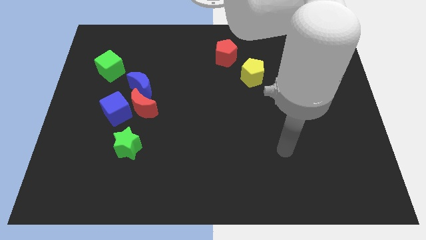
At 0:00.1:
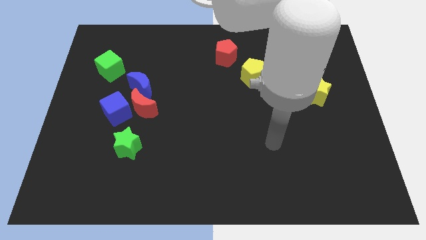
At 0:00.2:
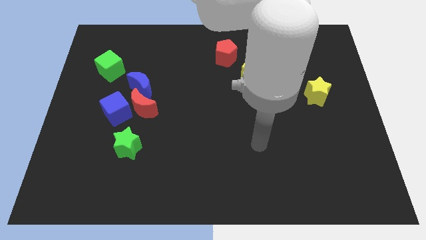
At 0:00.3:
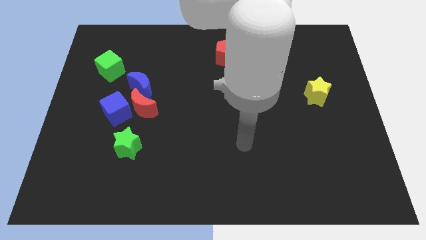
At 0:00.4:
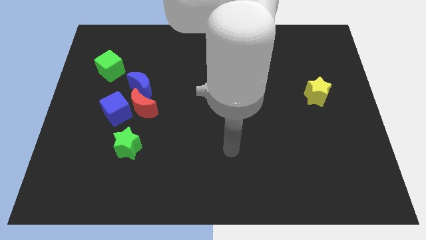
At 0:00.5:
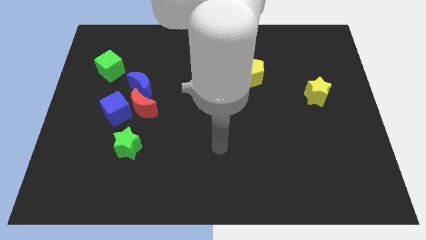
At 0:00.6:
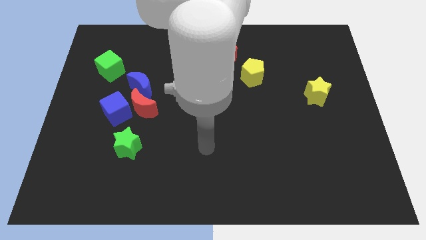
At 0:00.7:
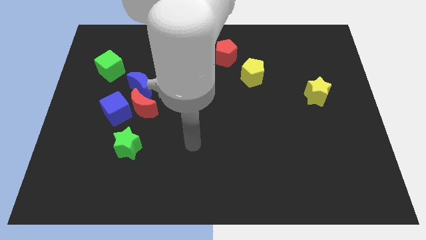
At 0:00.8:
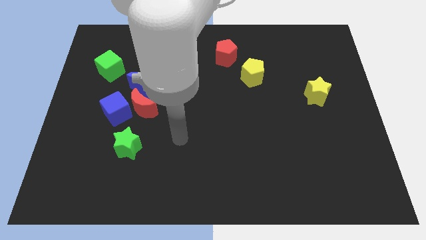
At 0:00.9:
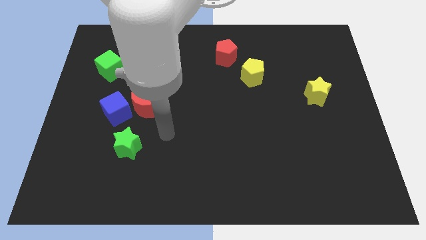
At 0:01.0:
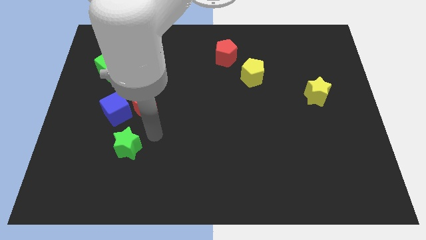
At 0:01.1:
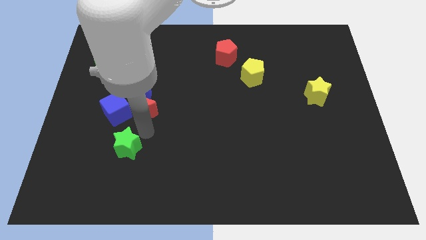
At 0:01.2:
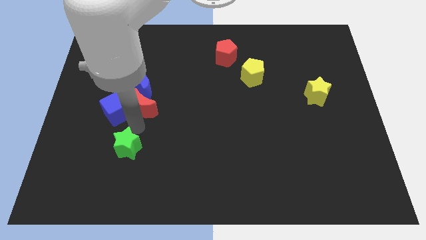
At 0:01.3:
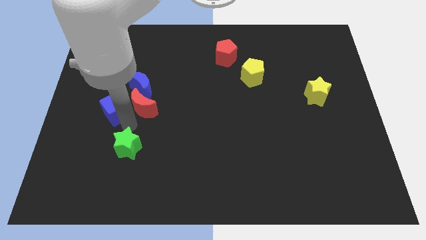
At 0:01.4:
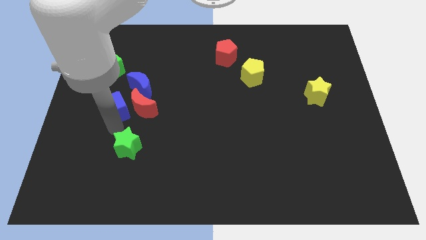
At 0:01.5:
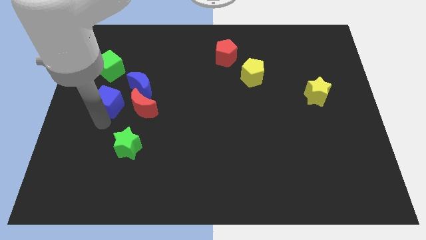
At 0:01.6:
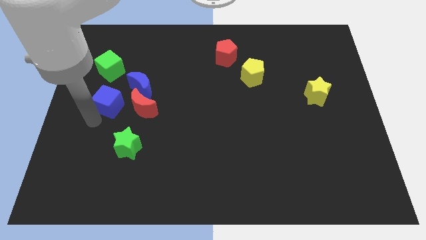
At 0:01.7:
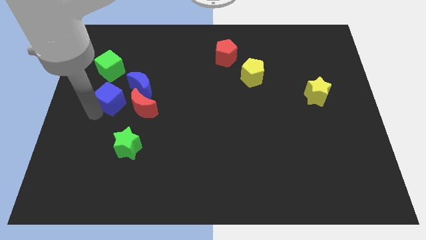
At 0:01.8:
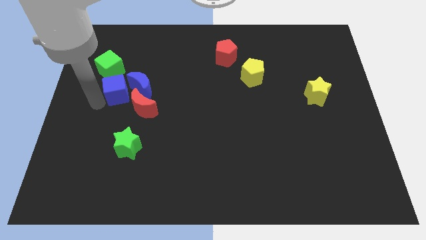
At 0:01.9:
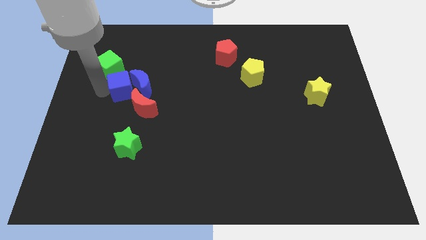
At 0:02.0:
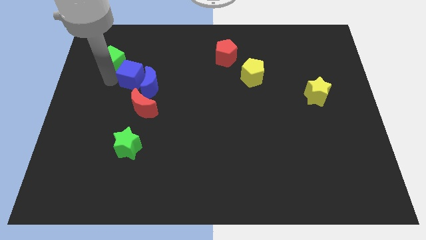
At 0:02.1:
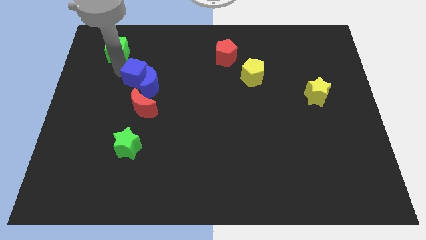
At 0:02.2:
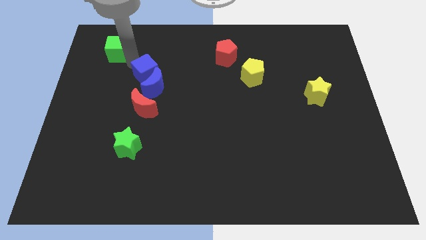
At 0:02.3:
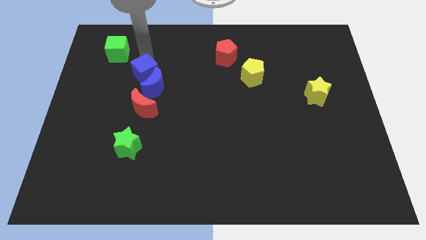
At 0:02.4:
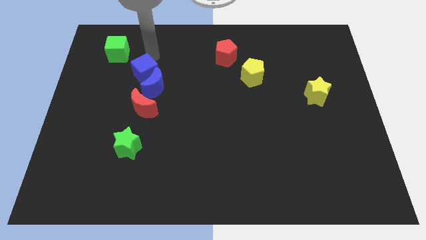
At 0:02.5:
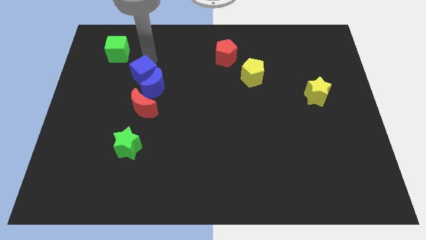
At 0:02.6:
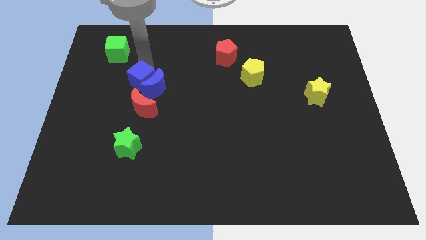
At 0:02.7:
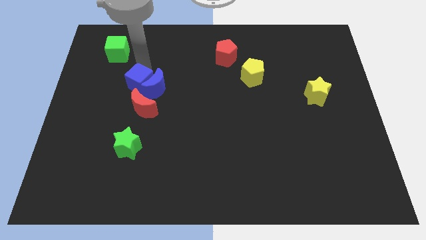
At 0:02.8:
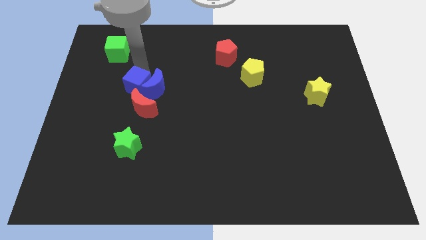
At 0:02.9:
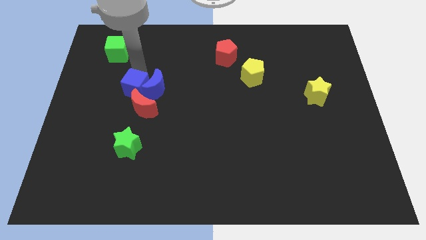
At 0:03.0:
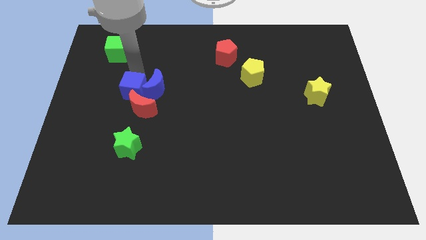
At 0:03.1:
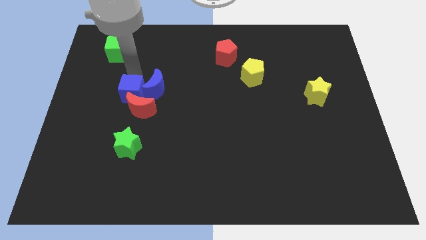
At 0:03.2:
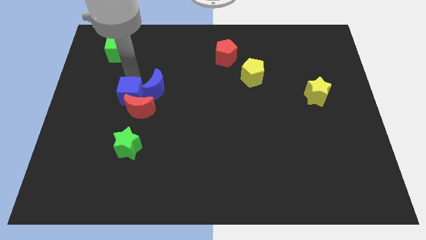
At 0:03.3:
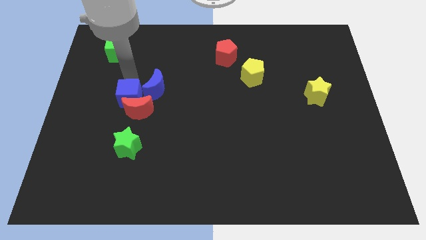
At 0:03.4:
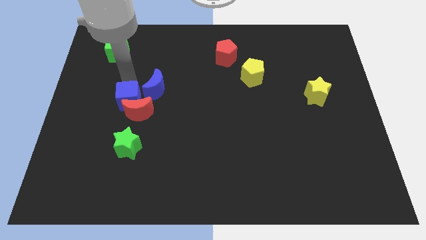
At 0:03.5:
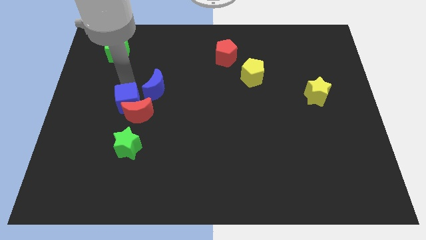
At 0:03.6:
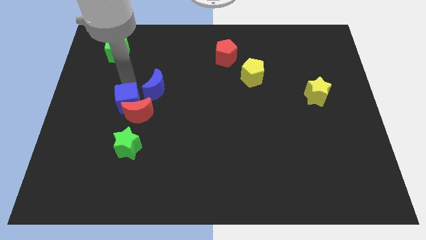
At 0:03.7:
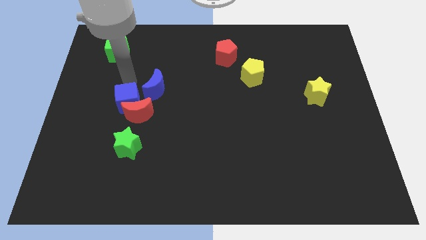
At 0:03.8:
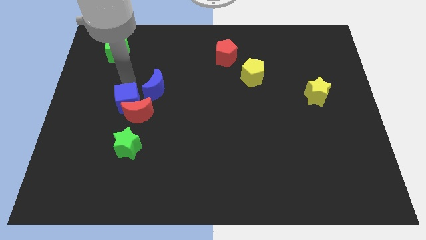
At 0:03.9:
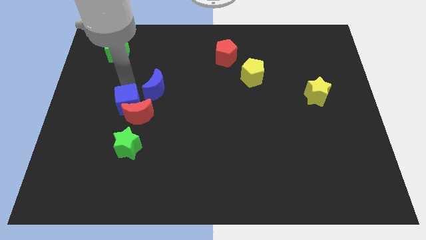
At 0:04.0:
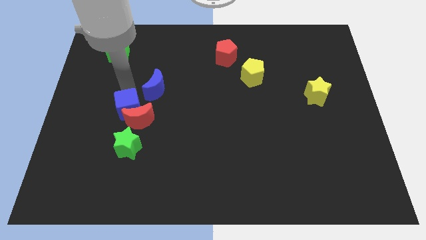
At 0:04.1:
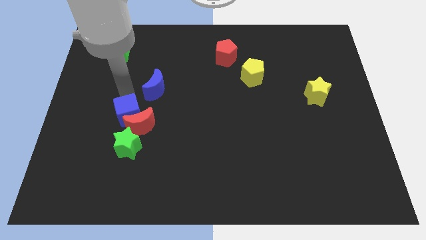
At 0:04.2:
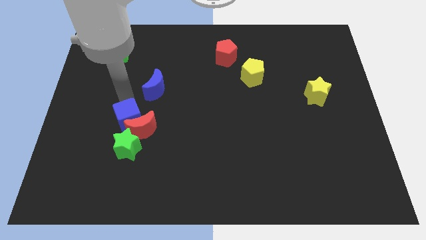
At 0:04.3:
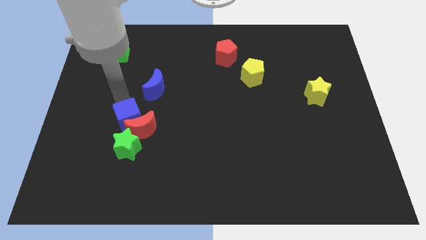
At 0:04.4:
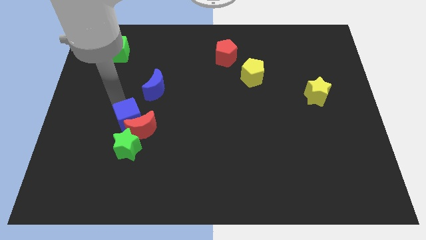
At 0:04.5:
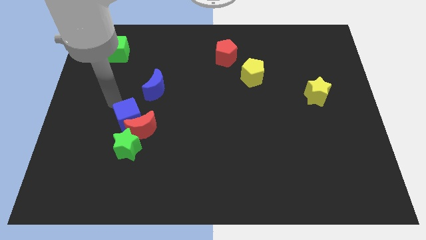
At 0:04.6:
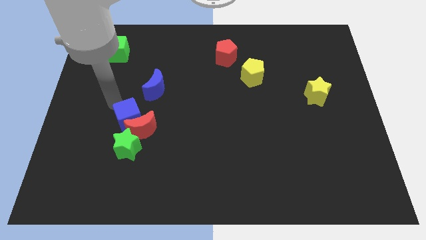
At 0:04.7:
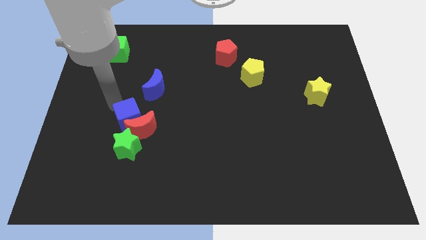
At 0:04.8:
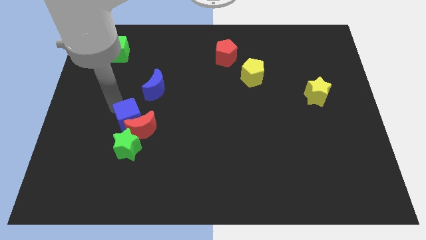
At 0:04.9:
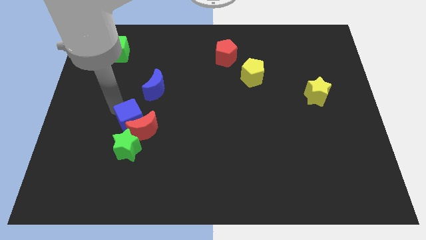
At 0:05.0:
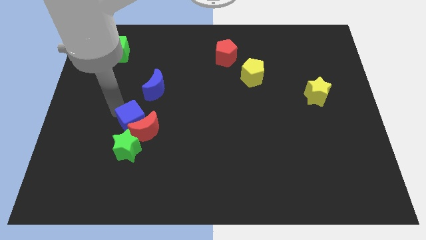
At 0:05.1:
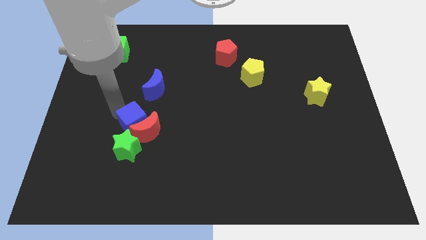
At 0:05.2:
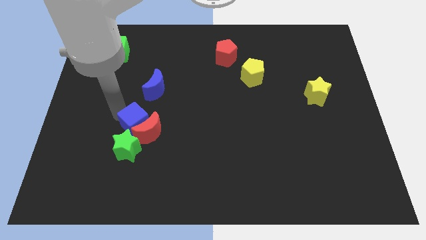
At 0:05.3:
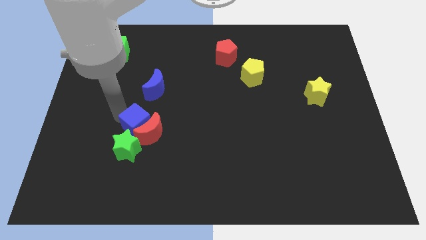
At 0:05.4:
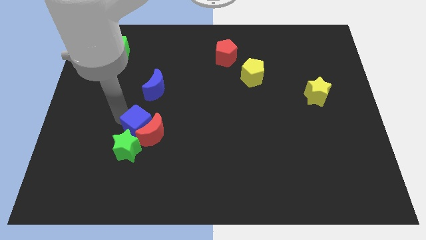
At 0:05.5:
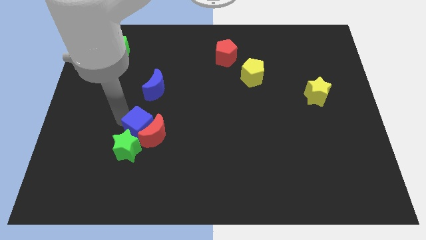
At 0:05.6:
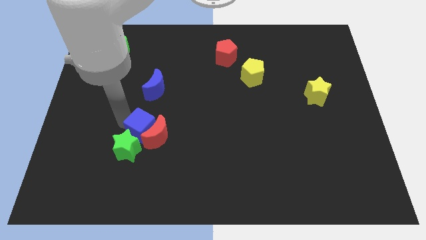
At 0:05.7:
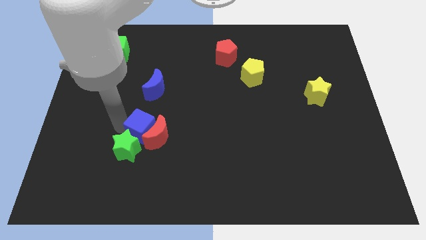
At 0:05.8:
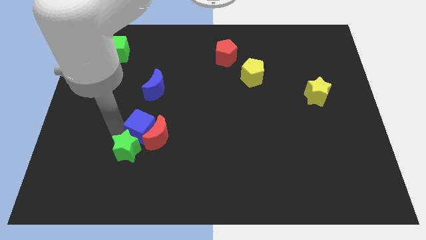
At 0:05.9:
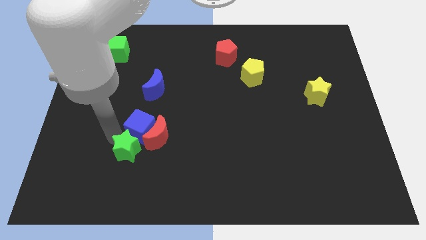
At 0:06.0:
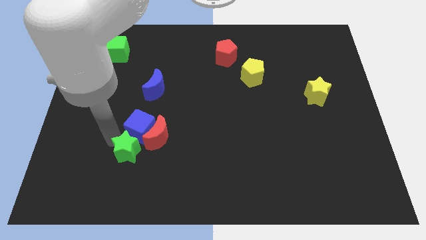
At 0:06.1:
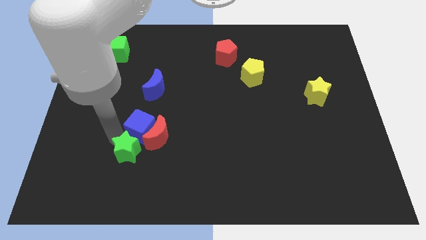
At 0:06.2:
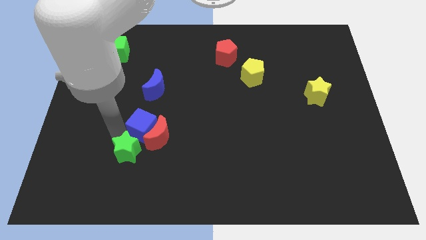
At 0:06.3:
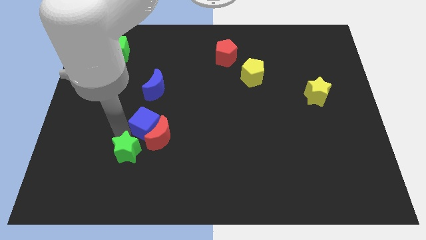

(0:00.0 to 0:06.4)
slide the blue cube slightly to the right

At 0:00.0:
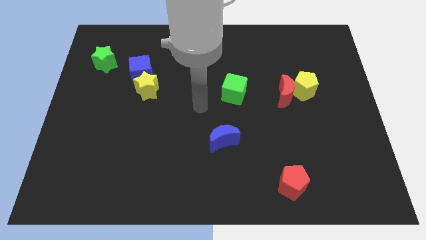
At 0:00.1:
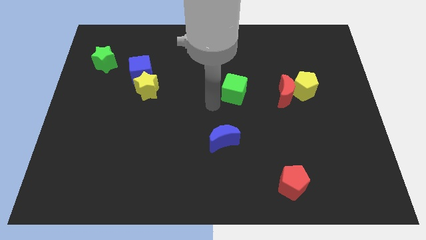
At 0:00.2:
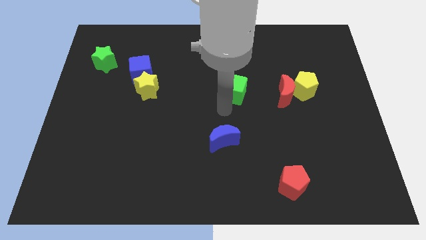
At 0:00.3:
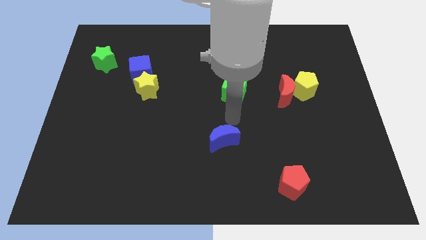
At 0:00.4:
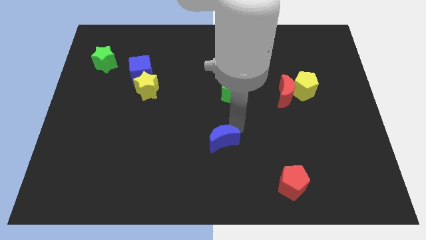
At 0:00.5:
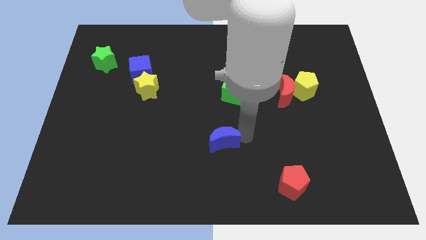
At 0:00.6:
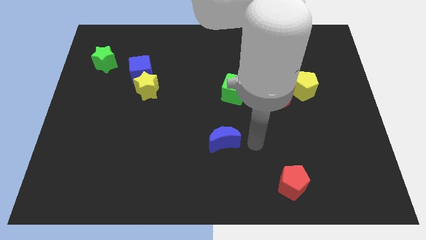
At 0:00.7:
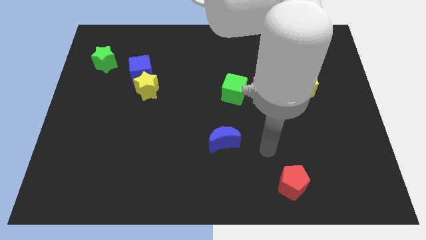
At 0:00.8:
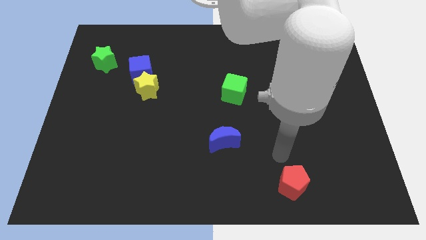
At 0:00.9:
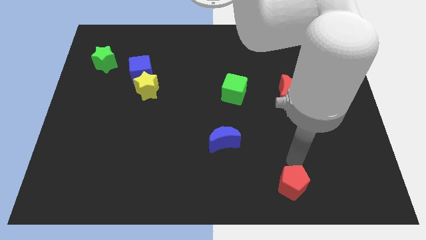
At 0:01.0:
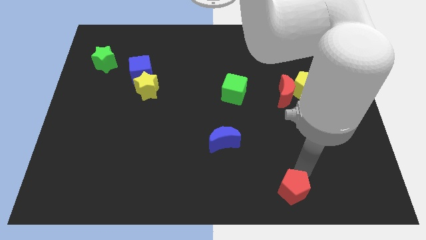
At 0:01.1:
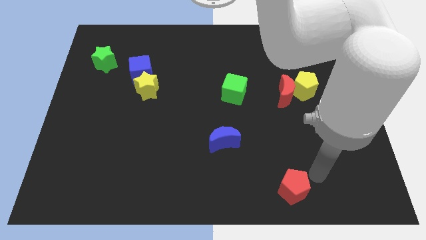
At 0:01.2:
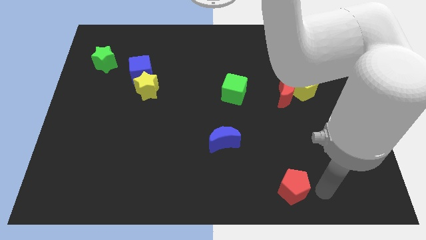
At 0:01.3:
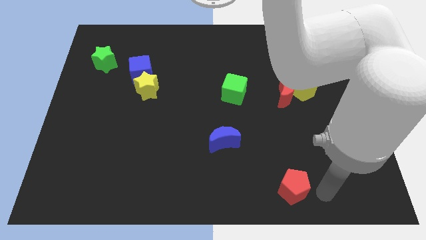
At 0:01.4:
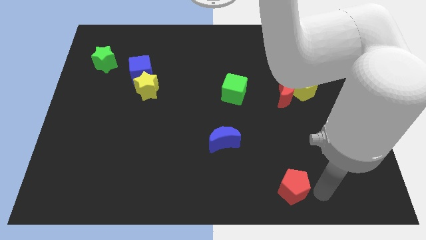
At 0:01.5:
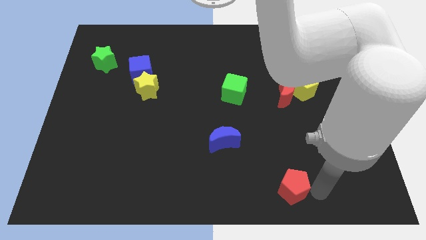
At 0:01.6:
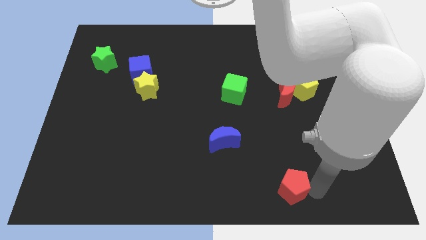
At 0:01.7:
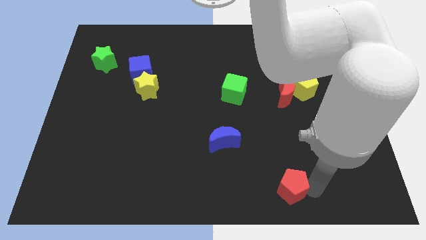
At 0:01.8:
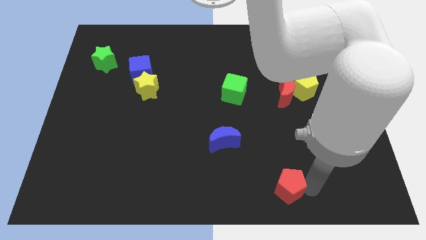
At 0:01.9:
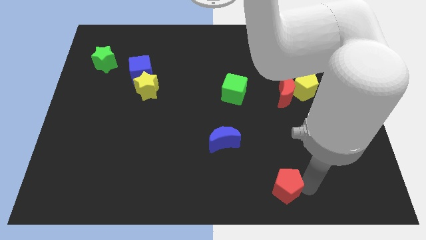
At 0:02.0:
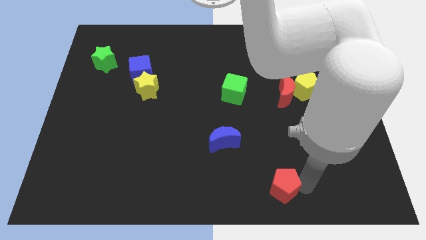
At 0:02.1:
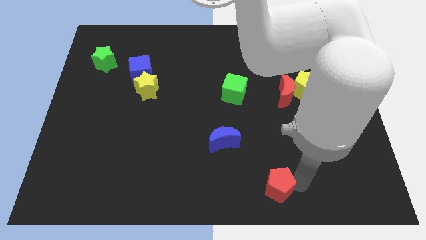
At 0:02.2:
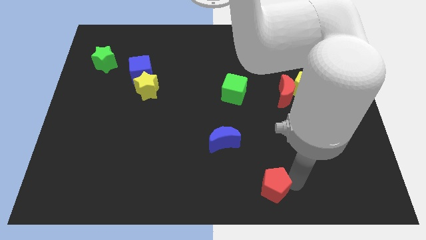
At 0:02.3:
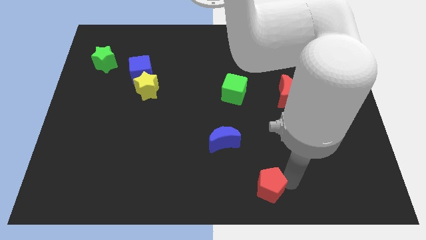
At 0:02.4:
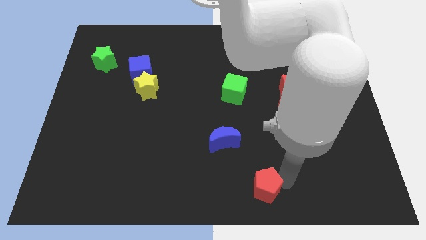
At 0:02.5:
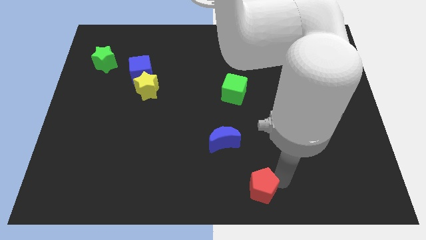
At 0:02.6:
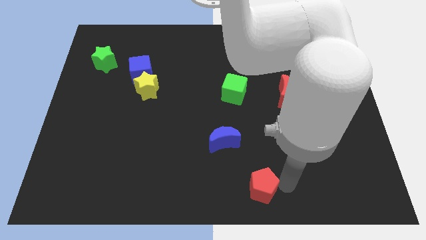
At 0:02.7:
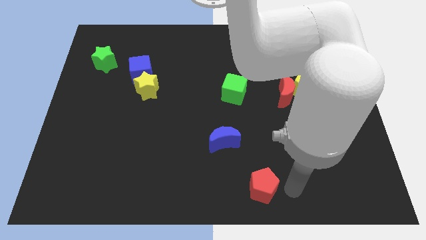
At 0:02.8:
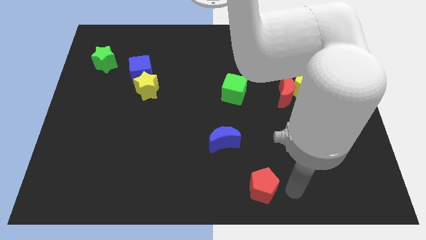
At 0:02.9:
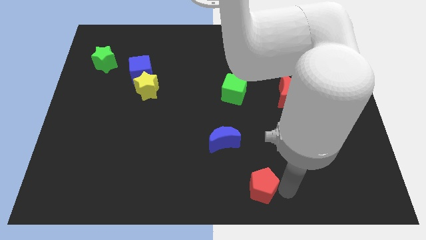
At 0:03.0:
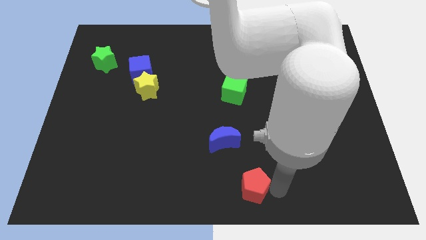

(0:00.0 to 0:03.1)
slightly move the red pentagon to the left
